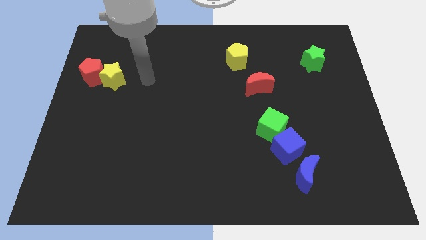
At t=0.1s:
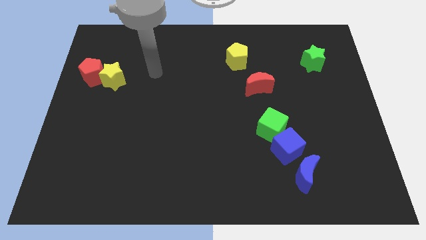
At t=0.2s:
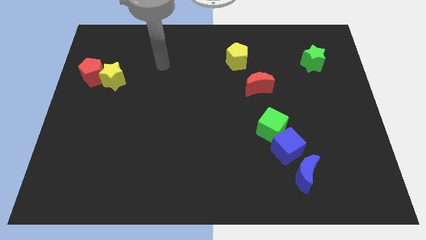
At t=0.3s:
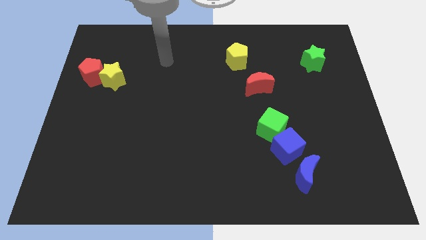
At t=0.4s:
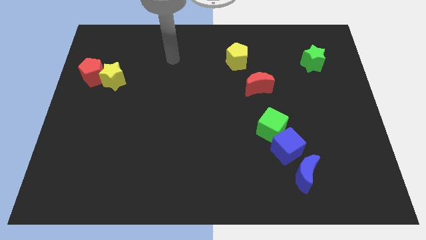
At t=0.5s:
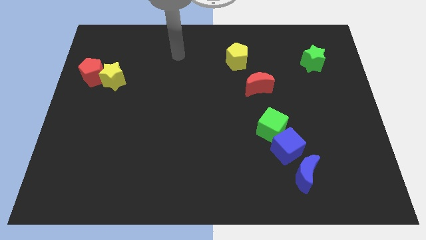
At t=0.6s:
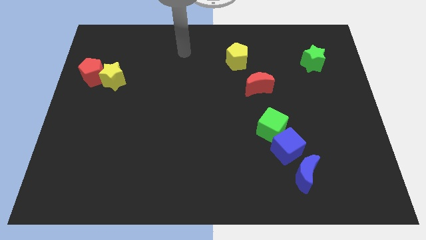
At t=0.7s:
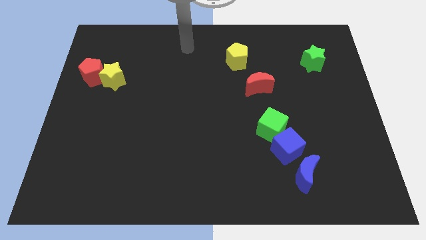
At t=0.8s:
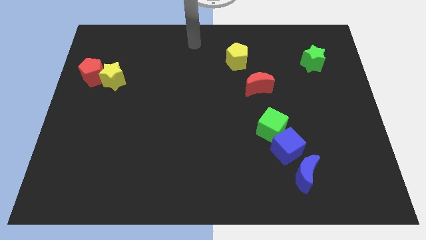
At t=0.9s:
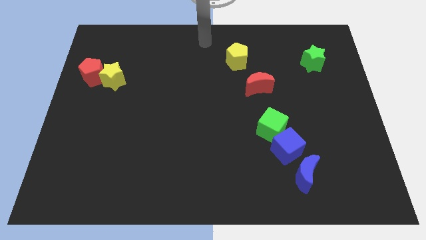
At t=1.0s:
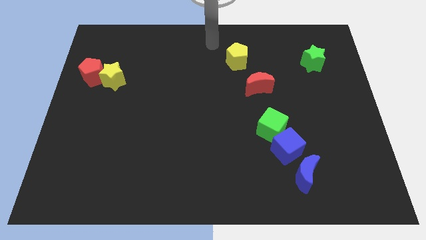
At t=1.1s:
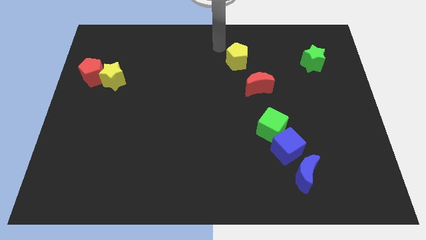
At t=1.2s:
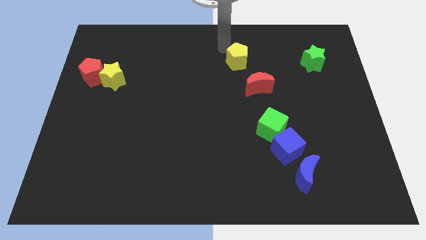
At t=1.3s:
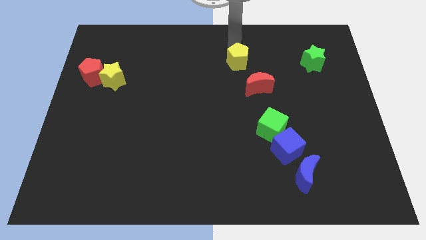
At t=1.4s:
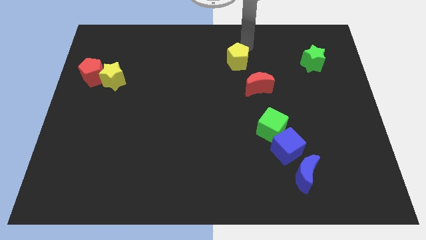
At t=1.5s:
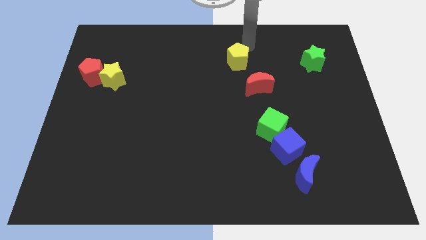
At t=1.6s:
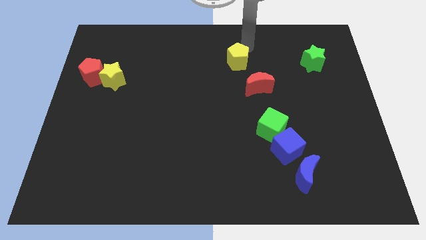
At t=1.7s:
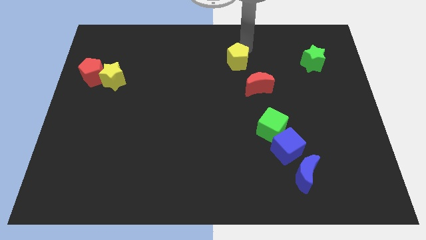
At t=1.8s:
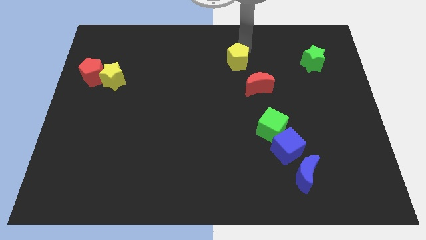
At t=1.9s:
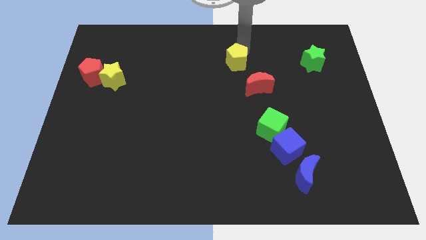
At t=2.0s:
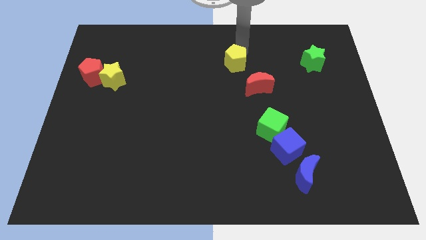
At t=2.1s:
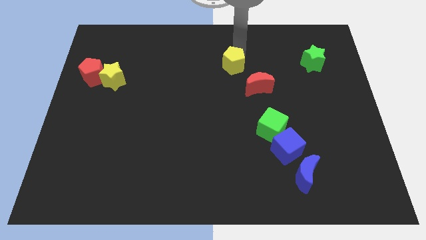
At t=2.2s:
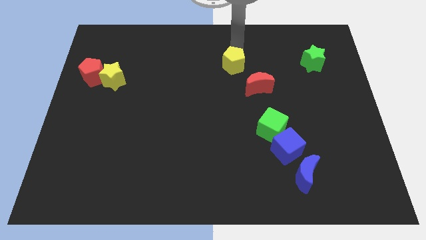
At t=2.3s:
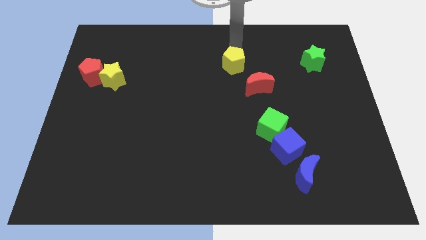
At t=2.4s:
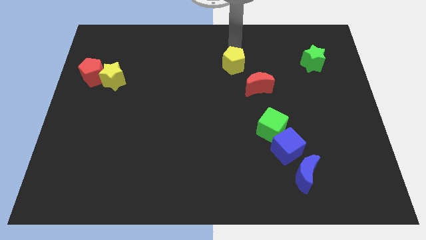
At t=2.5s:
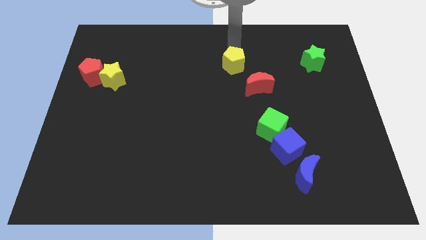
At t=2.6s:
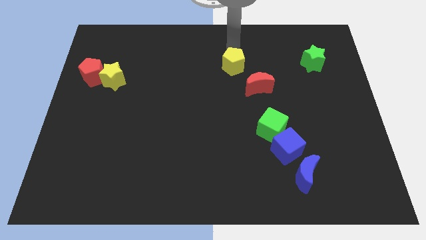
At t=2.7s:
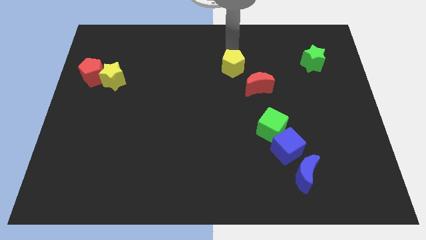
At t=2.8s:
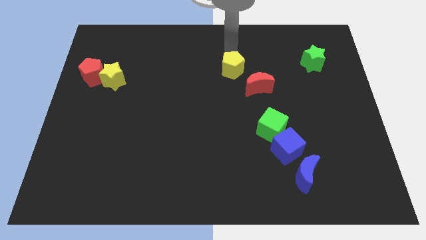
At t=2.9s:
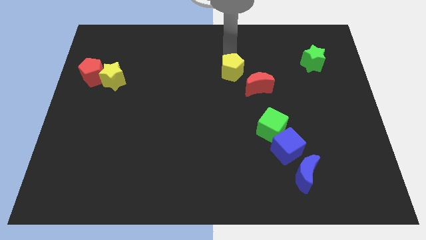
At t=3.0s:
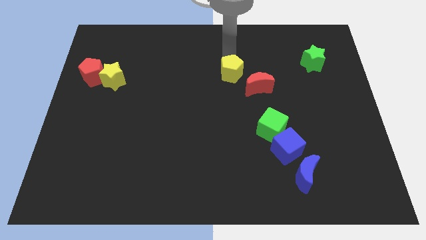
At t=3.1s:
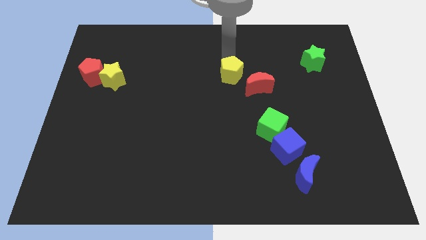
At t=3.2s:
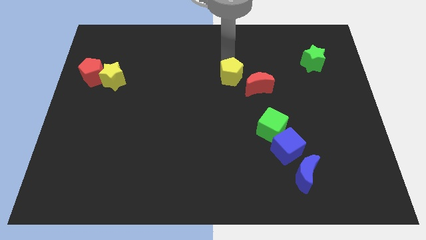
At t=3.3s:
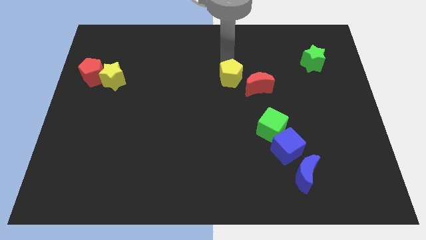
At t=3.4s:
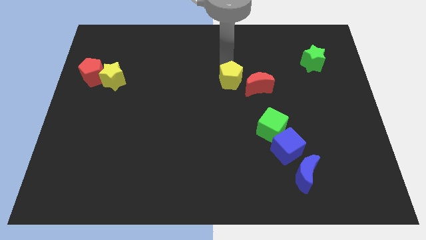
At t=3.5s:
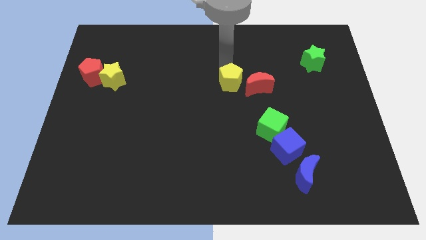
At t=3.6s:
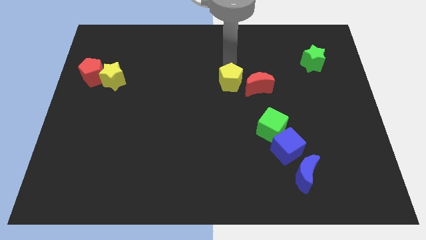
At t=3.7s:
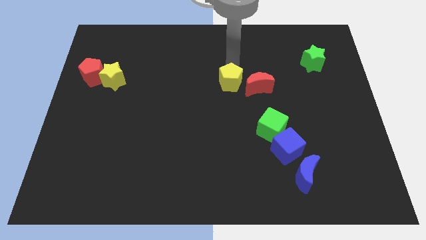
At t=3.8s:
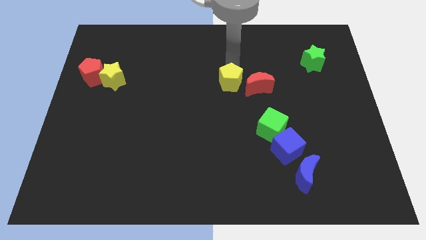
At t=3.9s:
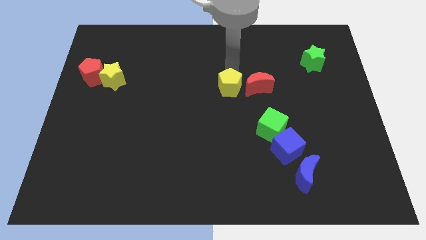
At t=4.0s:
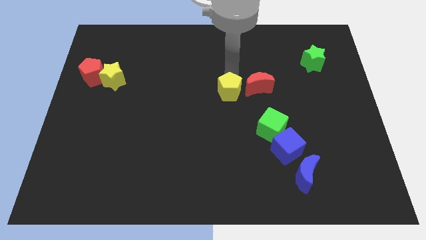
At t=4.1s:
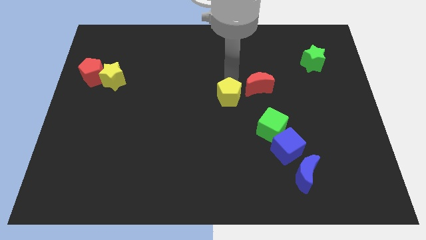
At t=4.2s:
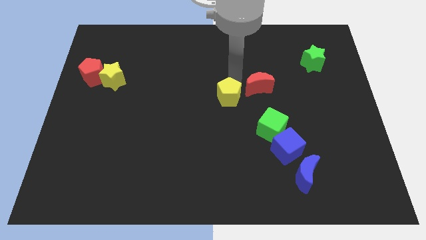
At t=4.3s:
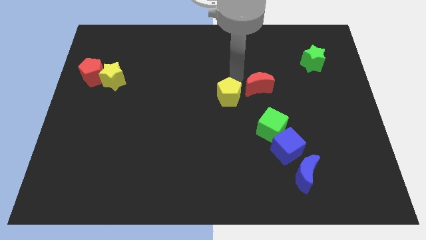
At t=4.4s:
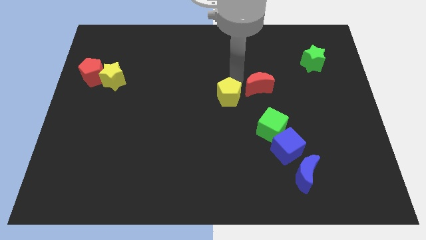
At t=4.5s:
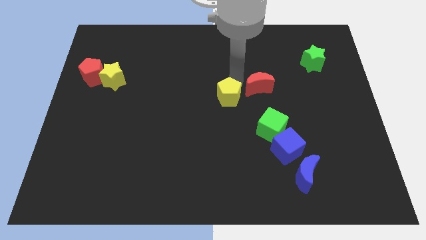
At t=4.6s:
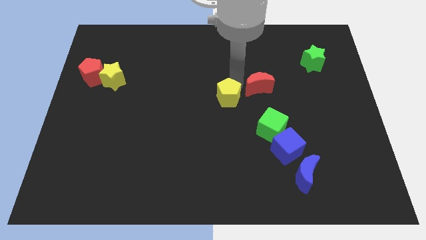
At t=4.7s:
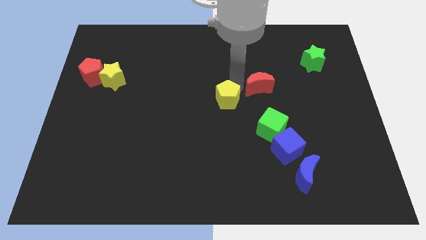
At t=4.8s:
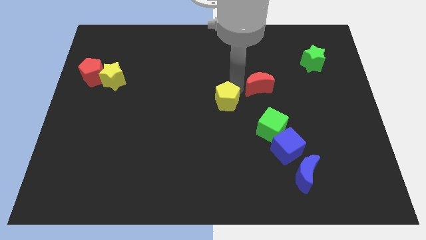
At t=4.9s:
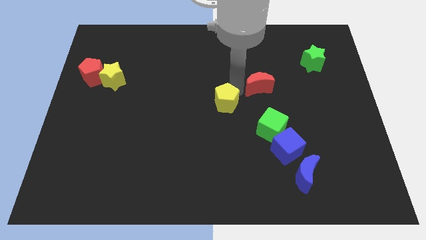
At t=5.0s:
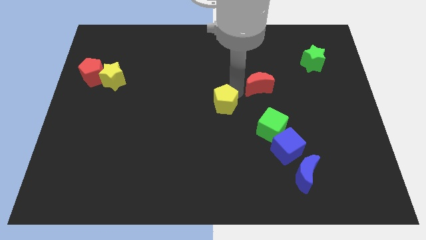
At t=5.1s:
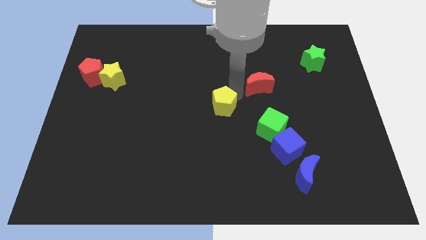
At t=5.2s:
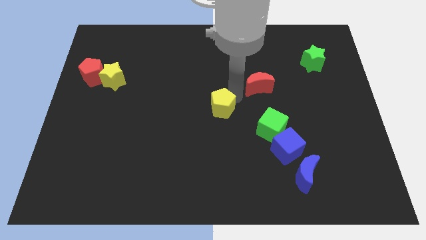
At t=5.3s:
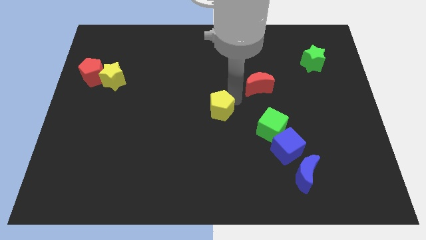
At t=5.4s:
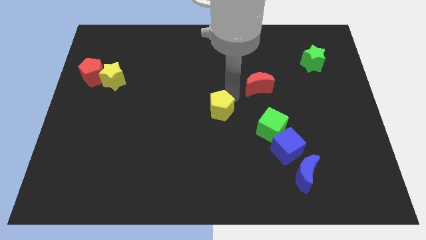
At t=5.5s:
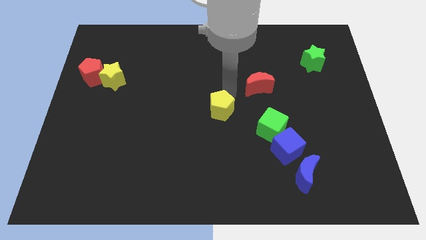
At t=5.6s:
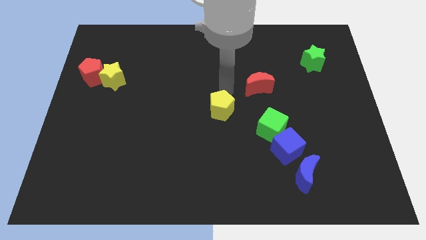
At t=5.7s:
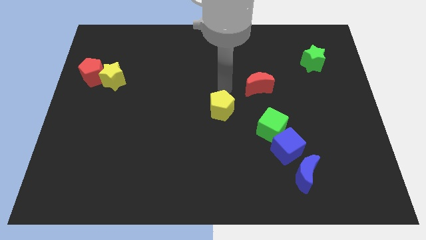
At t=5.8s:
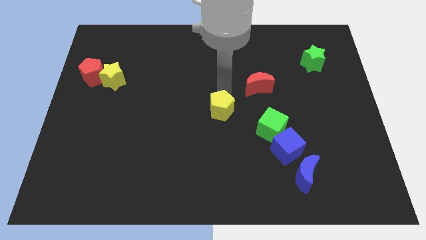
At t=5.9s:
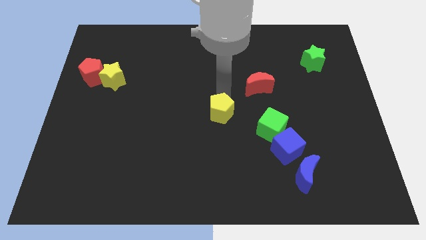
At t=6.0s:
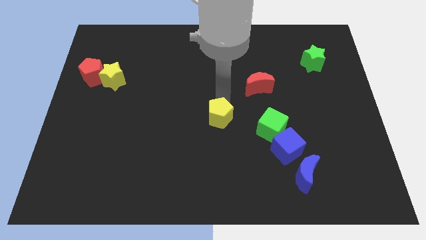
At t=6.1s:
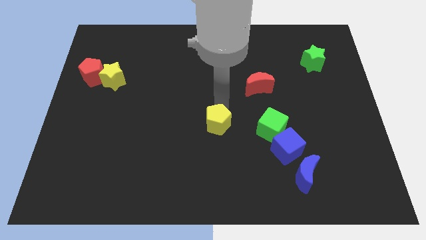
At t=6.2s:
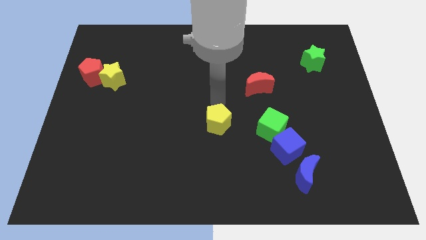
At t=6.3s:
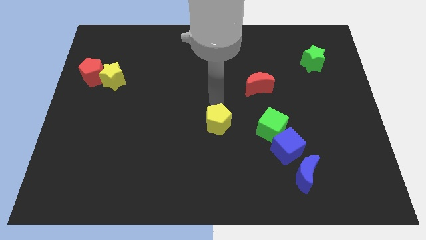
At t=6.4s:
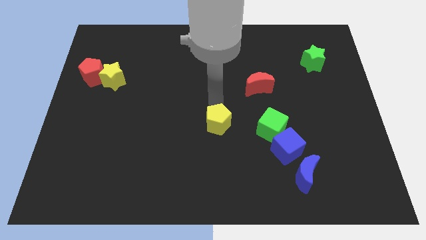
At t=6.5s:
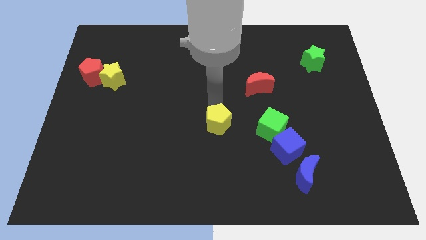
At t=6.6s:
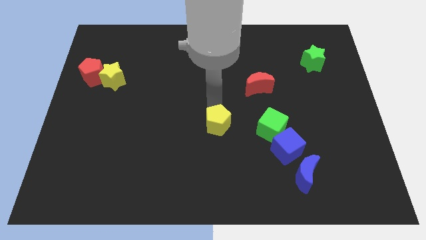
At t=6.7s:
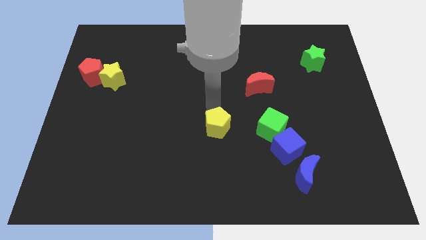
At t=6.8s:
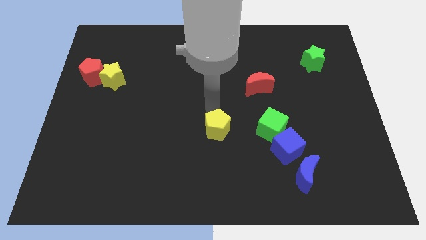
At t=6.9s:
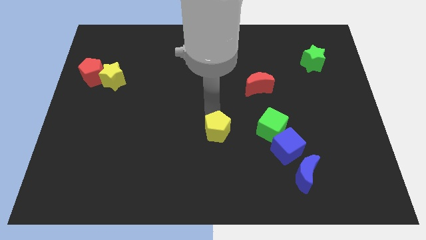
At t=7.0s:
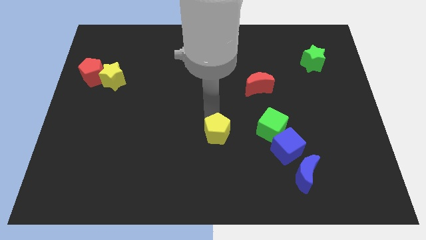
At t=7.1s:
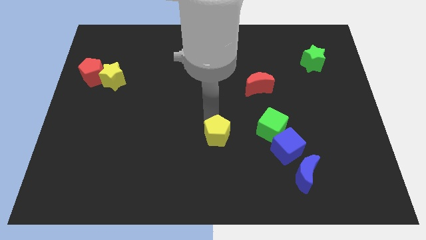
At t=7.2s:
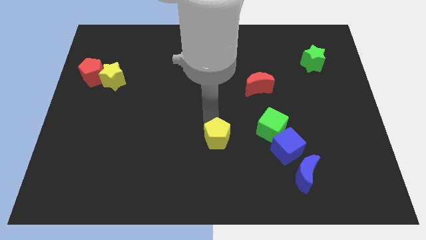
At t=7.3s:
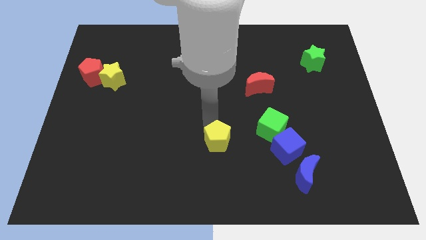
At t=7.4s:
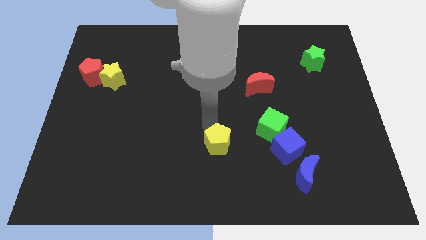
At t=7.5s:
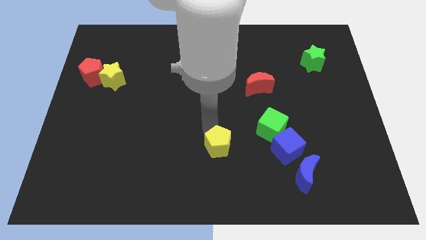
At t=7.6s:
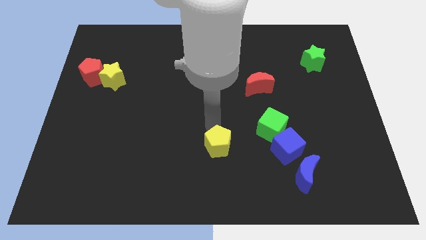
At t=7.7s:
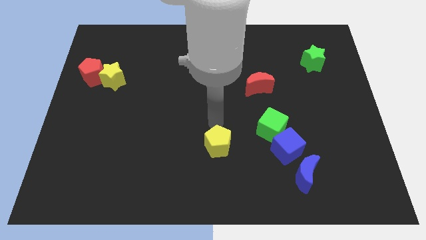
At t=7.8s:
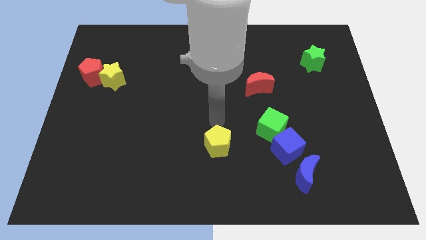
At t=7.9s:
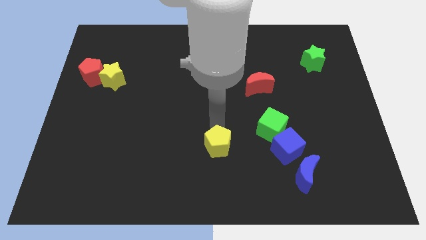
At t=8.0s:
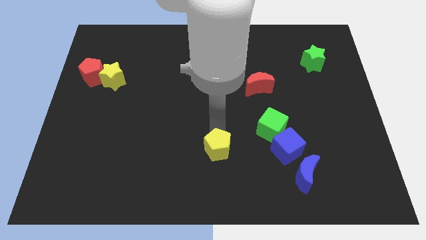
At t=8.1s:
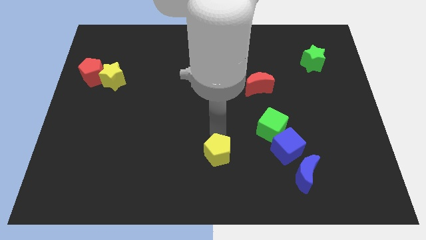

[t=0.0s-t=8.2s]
slide the yellow pentagon to the bottom side
